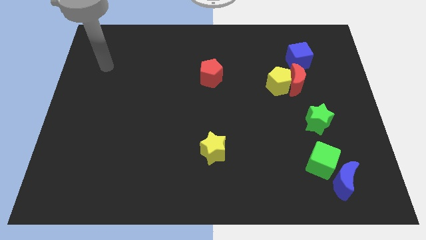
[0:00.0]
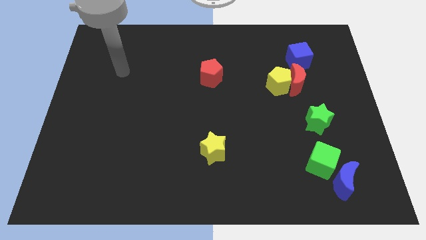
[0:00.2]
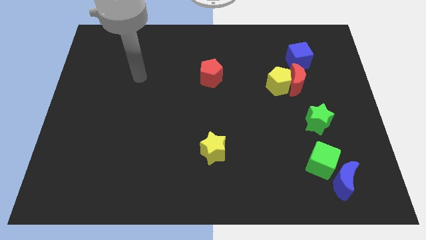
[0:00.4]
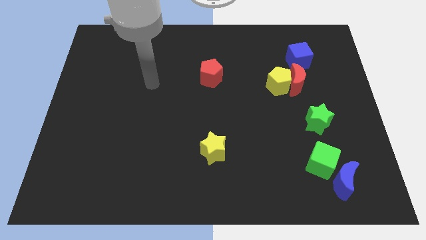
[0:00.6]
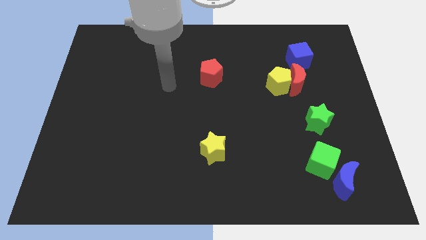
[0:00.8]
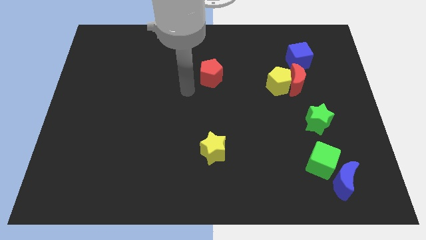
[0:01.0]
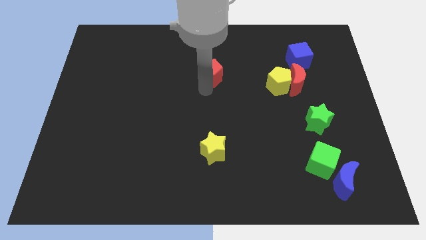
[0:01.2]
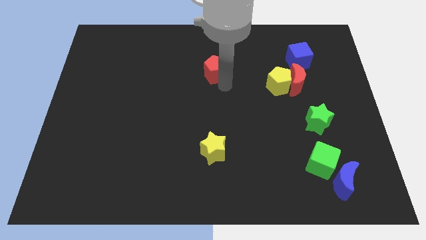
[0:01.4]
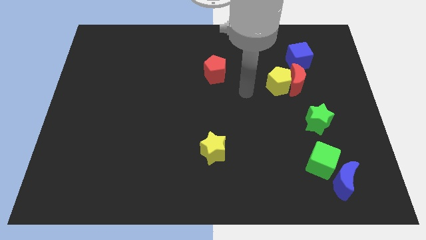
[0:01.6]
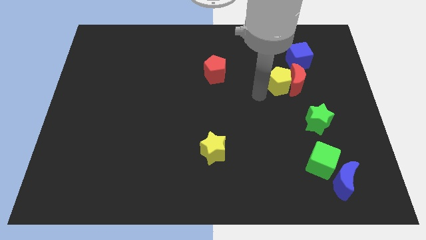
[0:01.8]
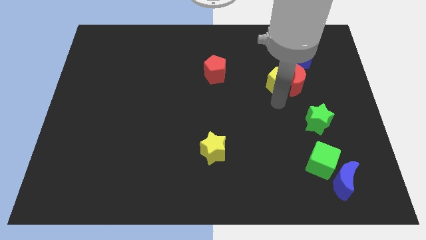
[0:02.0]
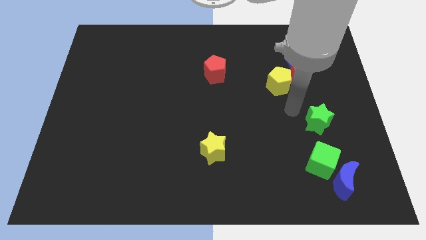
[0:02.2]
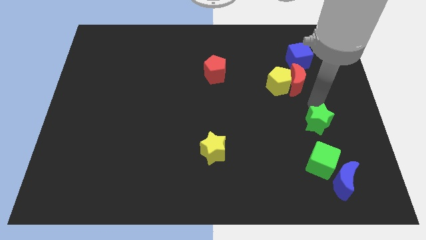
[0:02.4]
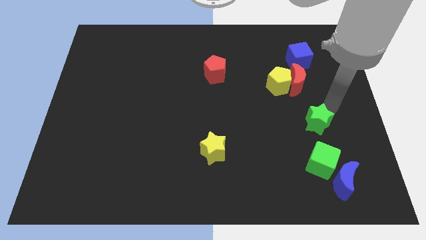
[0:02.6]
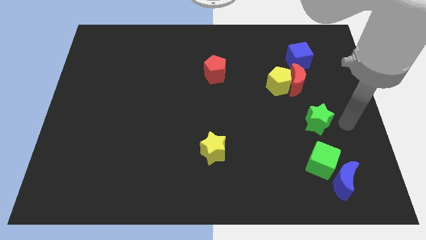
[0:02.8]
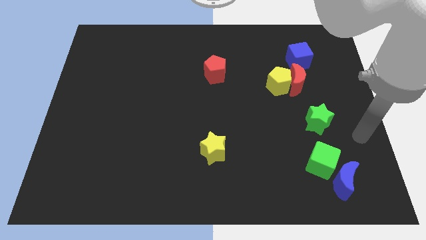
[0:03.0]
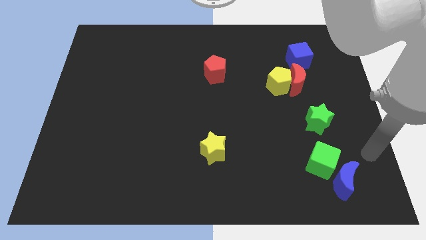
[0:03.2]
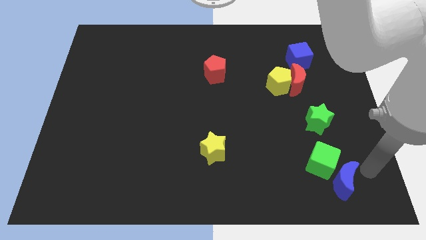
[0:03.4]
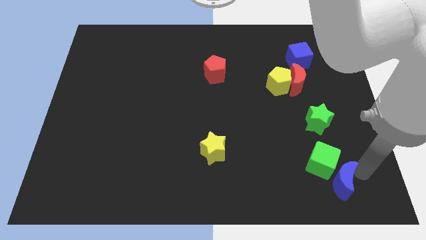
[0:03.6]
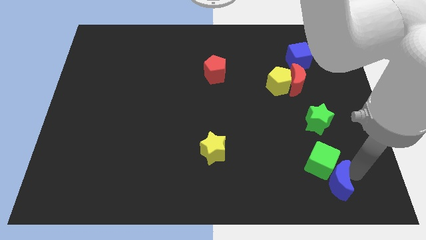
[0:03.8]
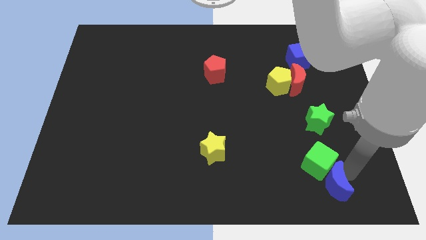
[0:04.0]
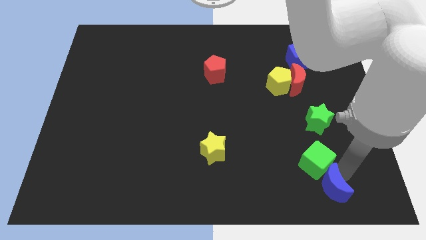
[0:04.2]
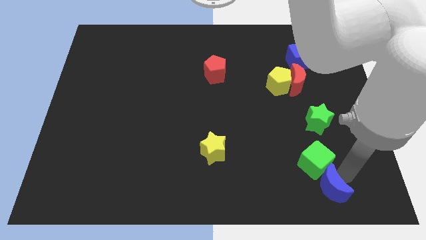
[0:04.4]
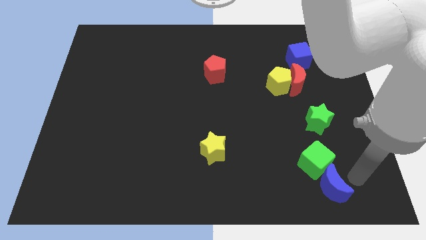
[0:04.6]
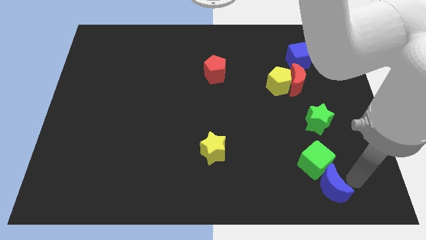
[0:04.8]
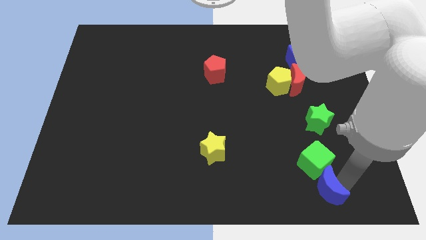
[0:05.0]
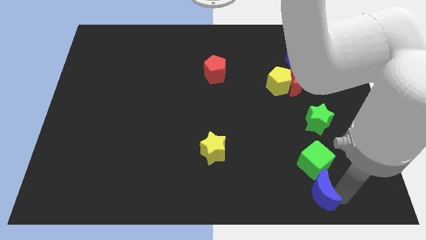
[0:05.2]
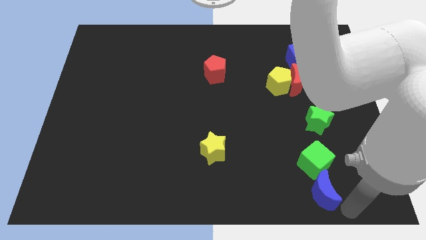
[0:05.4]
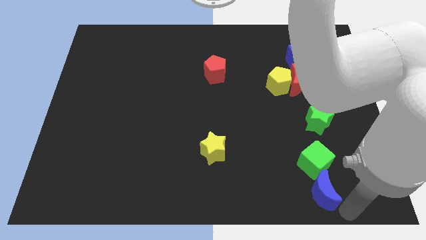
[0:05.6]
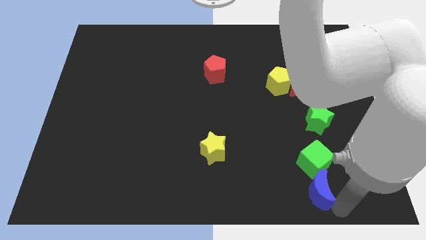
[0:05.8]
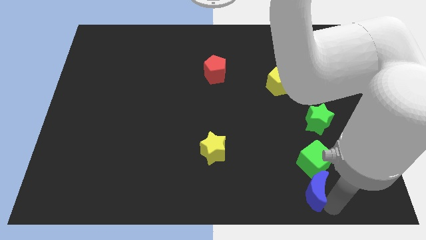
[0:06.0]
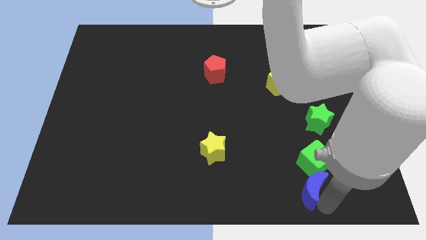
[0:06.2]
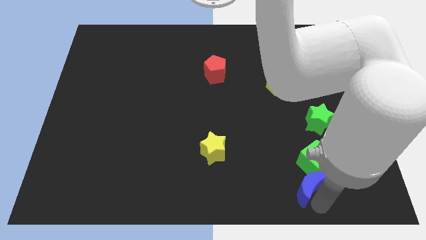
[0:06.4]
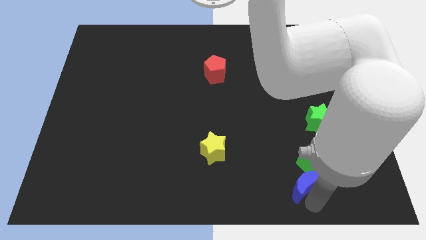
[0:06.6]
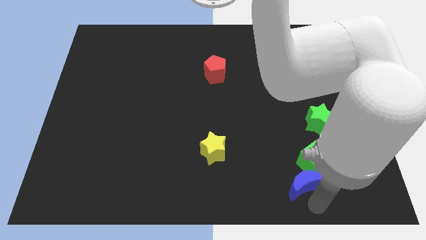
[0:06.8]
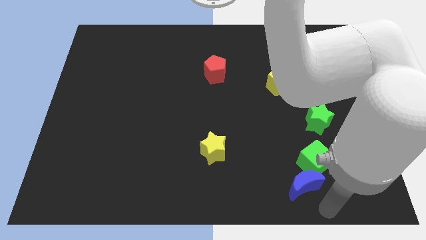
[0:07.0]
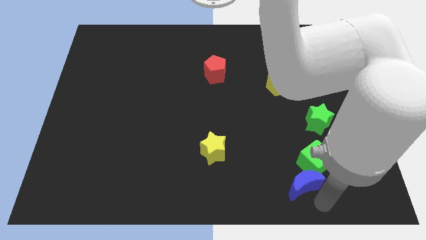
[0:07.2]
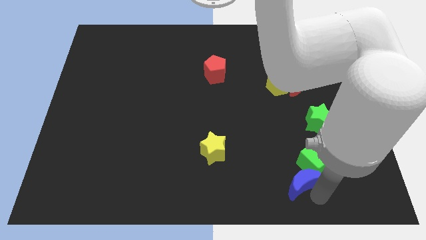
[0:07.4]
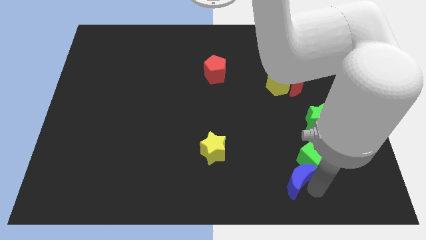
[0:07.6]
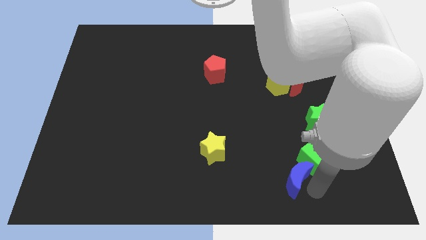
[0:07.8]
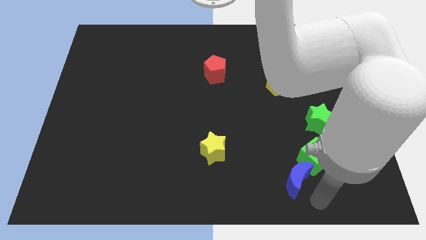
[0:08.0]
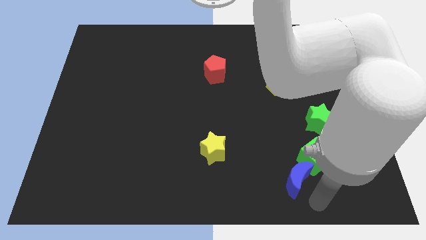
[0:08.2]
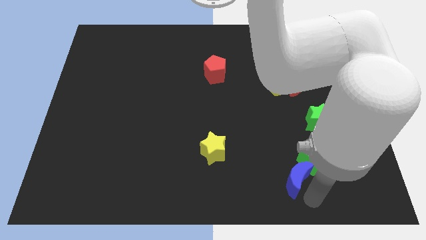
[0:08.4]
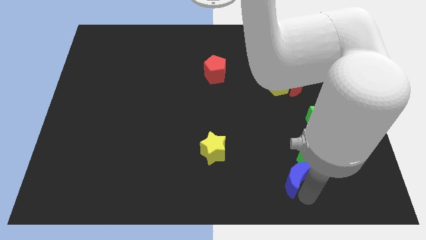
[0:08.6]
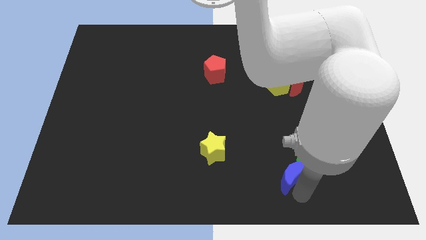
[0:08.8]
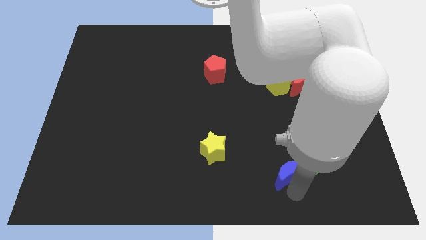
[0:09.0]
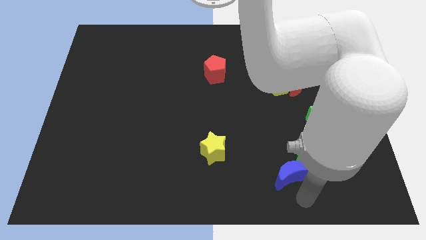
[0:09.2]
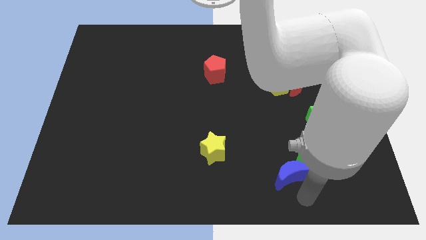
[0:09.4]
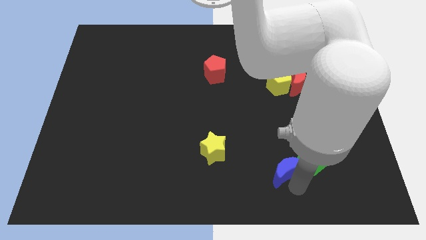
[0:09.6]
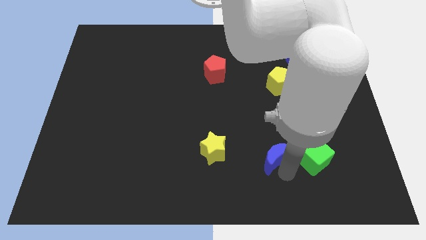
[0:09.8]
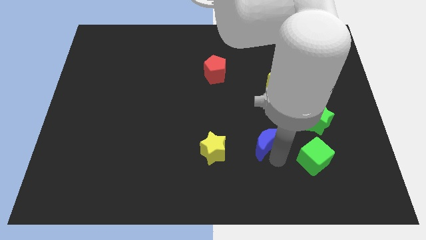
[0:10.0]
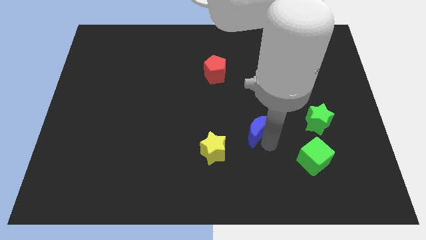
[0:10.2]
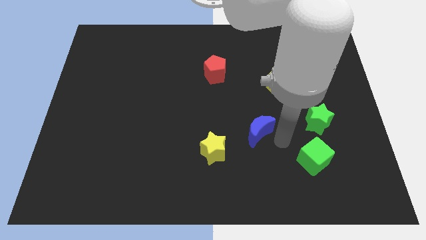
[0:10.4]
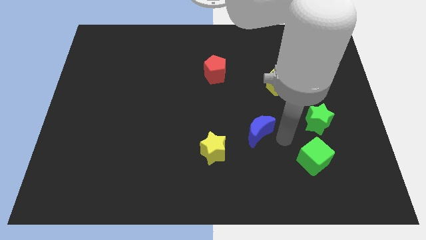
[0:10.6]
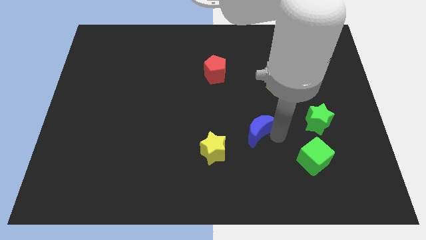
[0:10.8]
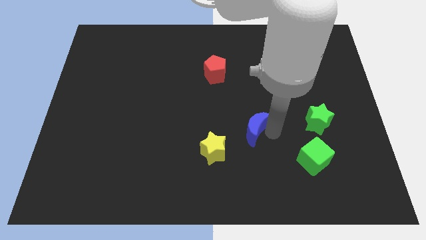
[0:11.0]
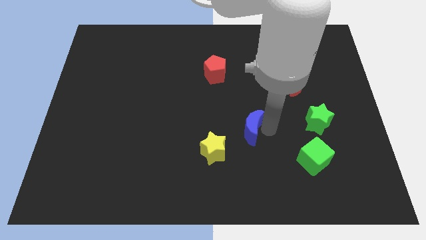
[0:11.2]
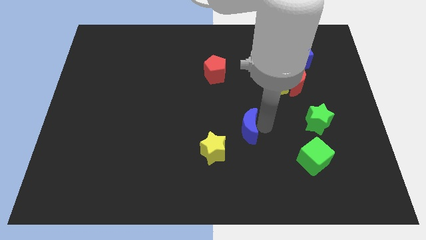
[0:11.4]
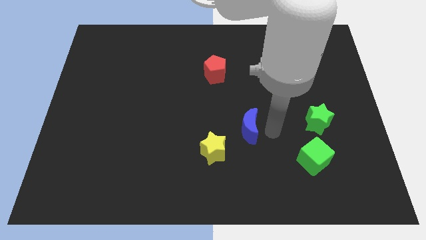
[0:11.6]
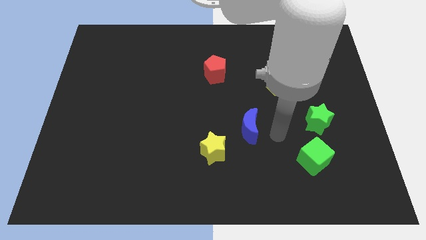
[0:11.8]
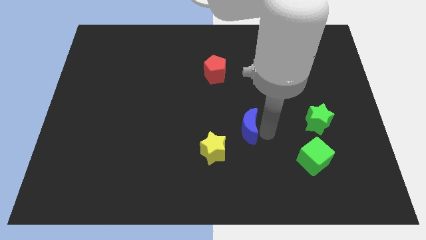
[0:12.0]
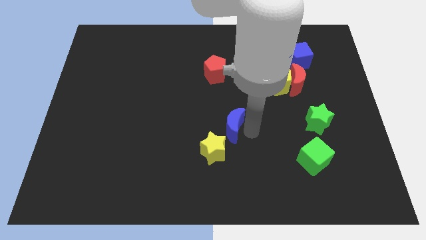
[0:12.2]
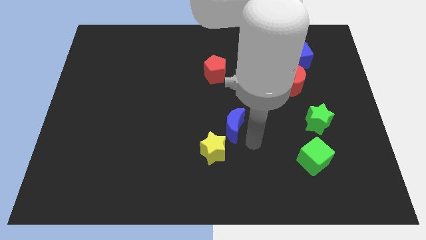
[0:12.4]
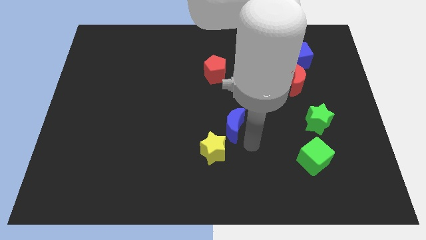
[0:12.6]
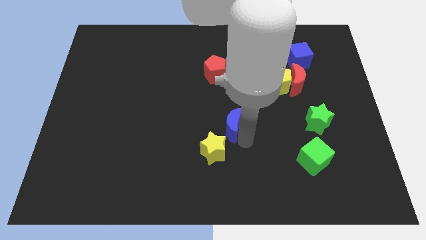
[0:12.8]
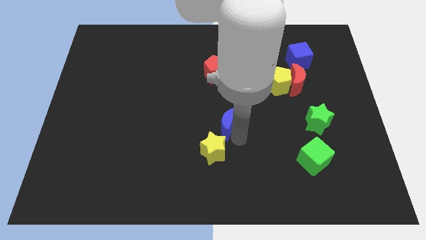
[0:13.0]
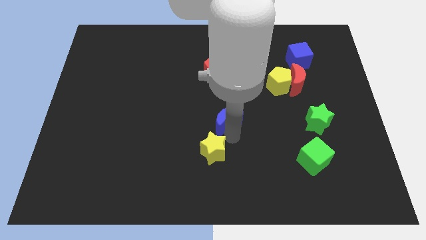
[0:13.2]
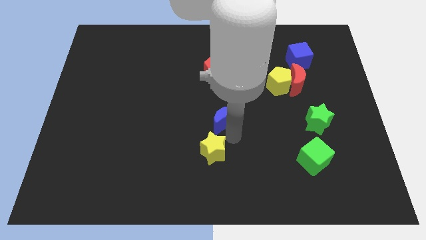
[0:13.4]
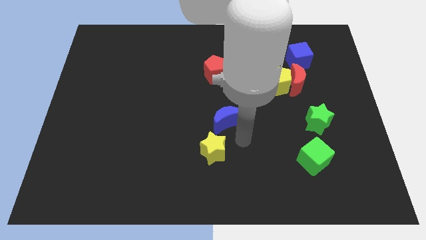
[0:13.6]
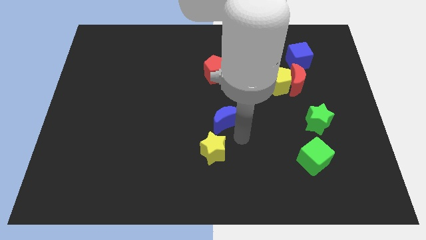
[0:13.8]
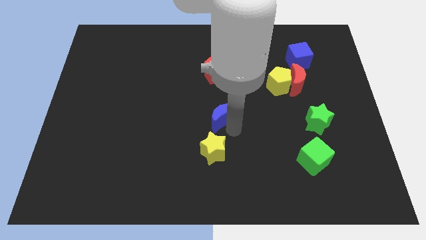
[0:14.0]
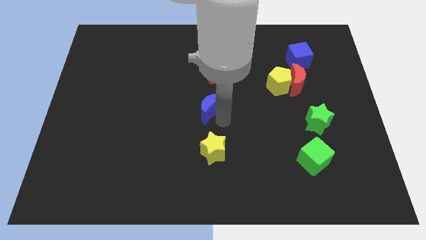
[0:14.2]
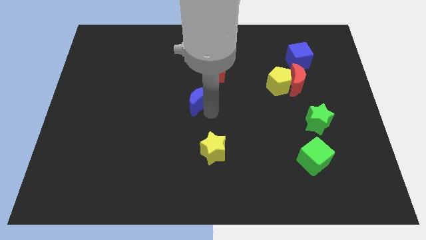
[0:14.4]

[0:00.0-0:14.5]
move the blue moon to the bottom left side of the red pentagon

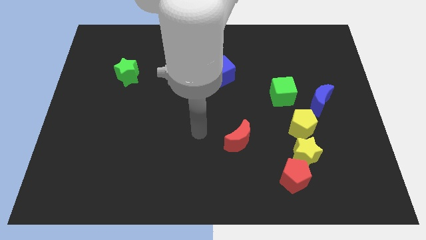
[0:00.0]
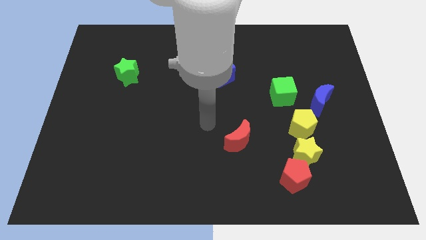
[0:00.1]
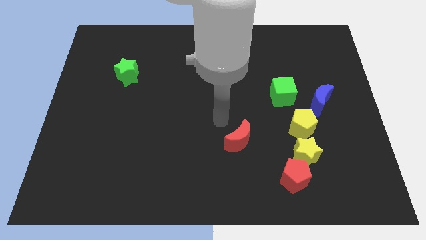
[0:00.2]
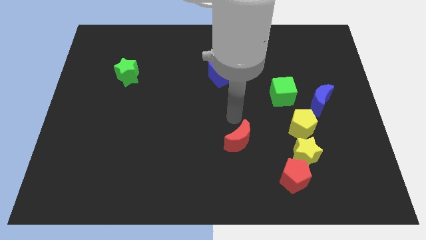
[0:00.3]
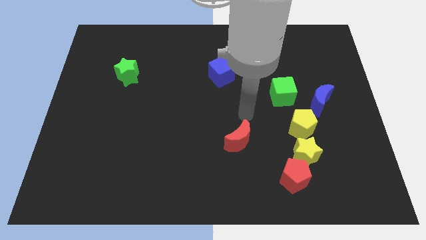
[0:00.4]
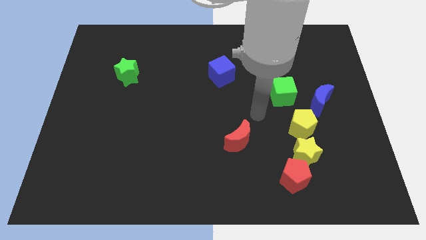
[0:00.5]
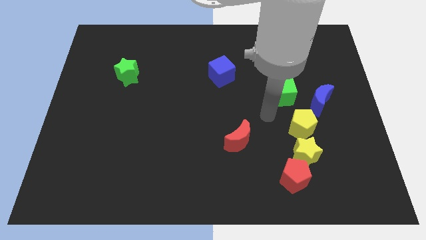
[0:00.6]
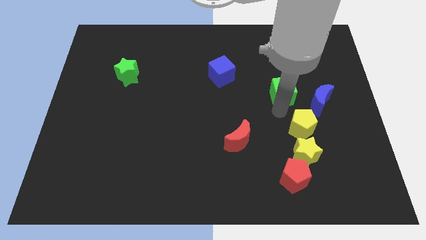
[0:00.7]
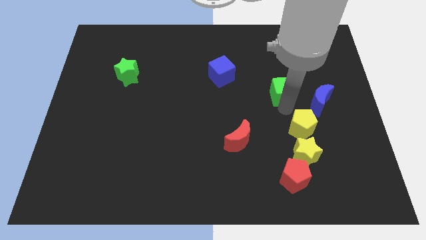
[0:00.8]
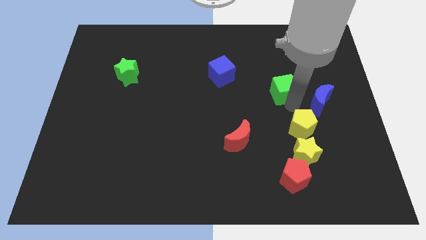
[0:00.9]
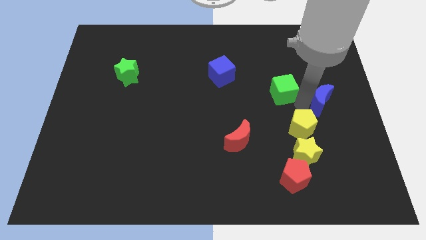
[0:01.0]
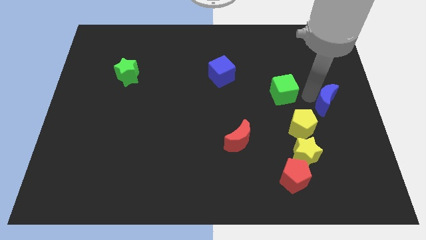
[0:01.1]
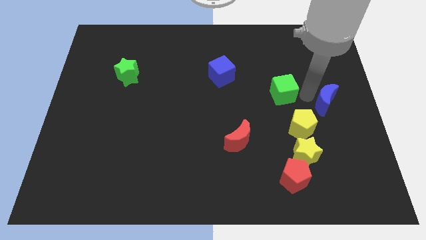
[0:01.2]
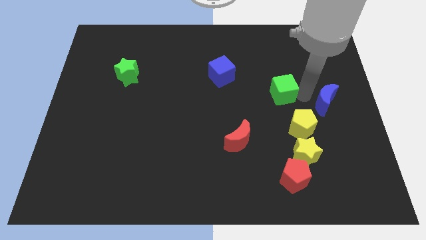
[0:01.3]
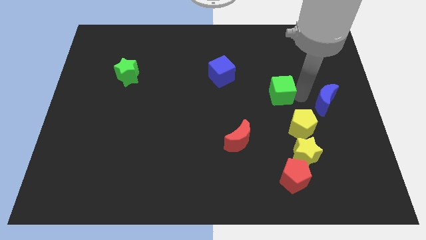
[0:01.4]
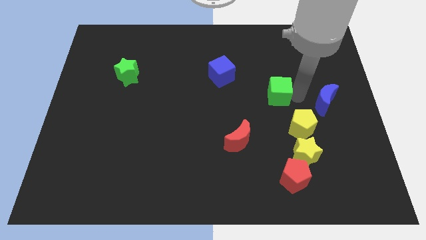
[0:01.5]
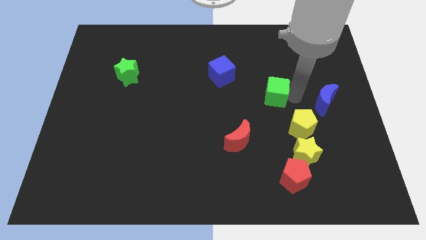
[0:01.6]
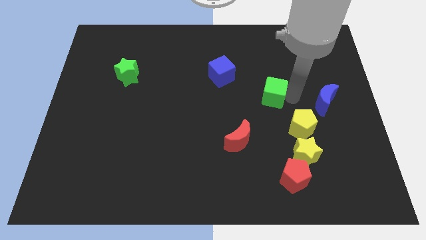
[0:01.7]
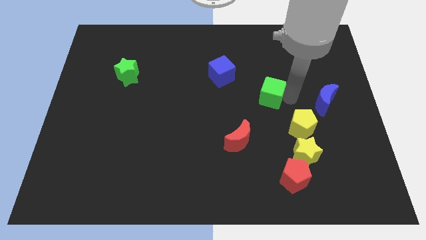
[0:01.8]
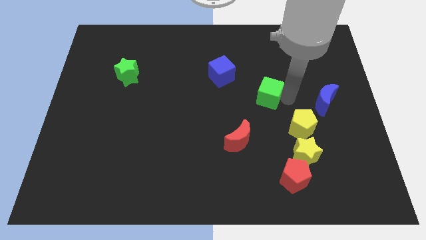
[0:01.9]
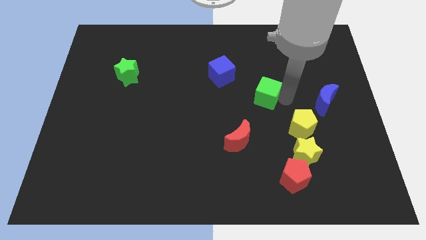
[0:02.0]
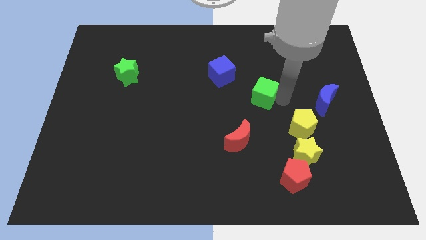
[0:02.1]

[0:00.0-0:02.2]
push the green cube diagonally down and to the right of the blue cube
